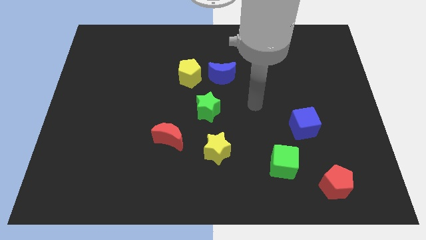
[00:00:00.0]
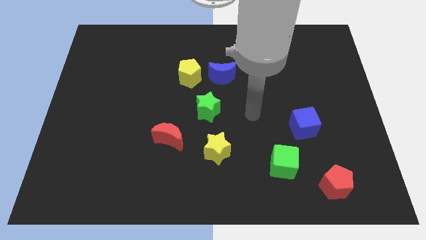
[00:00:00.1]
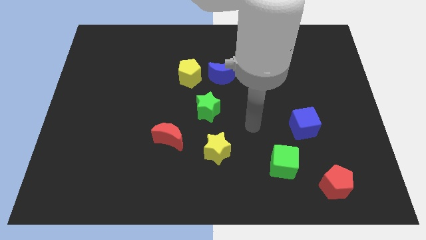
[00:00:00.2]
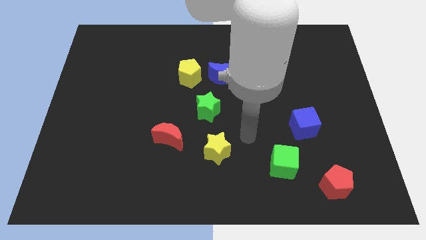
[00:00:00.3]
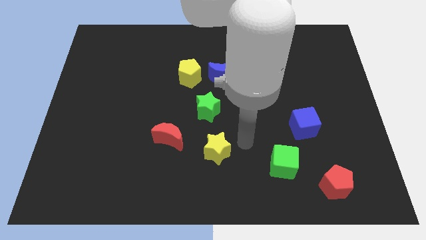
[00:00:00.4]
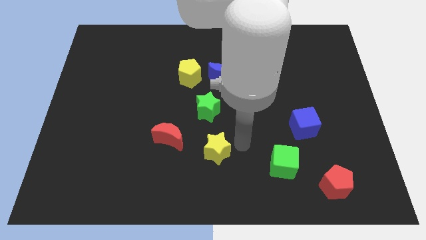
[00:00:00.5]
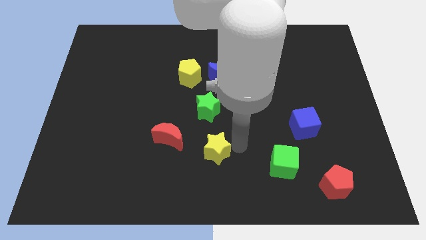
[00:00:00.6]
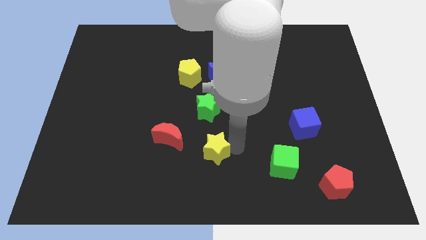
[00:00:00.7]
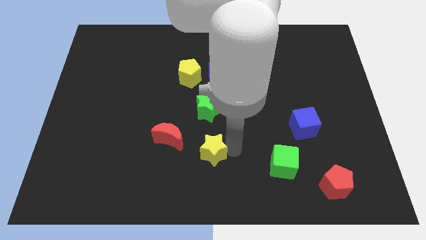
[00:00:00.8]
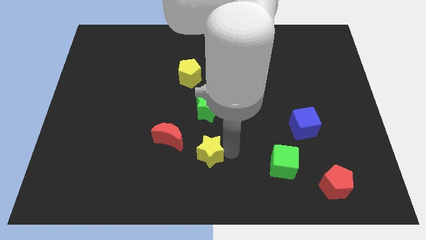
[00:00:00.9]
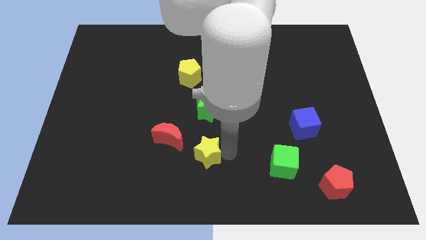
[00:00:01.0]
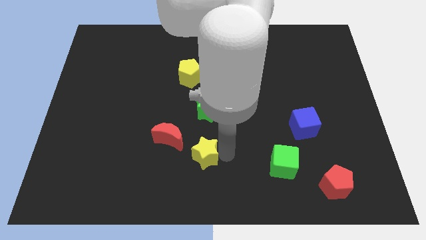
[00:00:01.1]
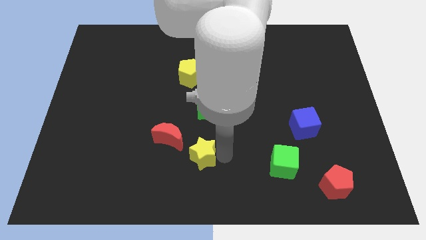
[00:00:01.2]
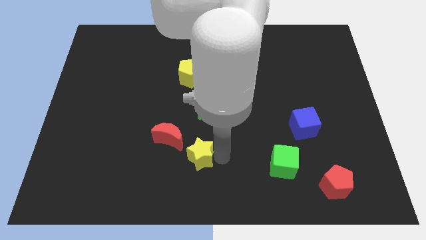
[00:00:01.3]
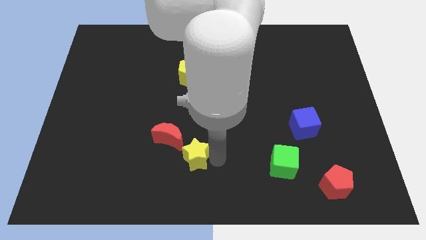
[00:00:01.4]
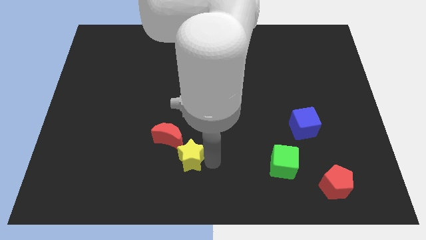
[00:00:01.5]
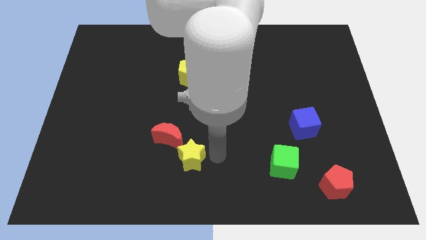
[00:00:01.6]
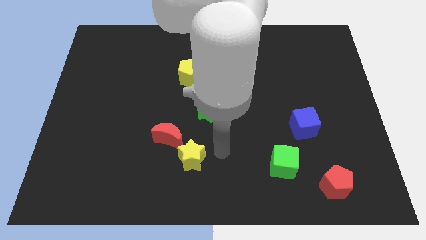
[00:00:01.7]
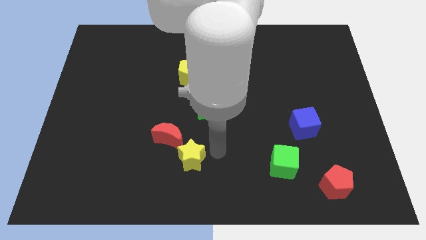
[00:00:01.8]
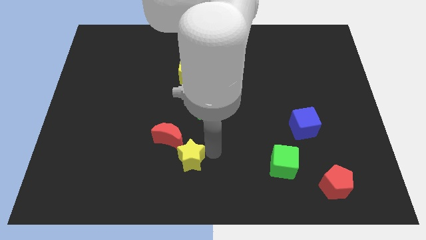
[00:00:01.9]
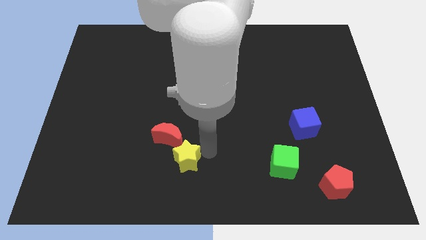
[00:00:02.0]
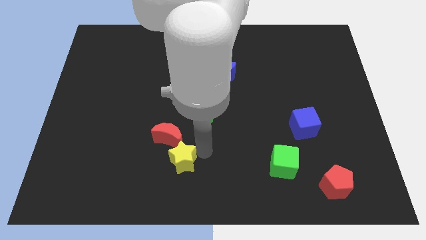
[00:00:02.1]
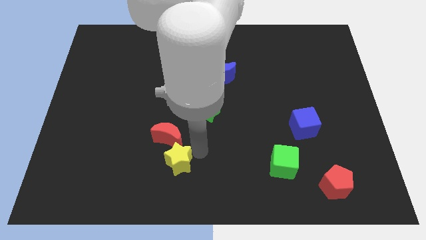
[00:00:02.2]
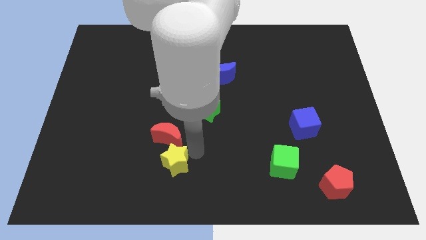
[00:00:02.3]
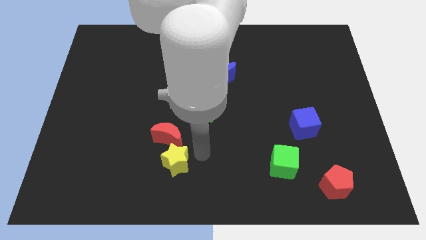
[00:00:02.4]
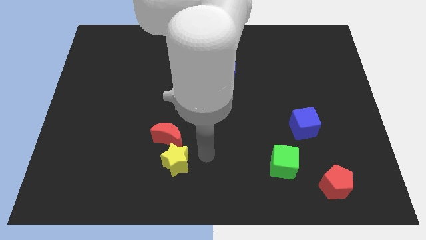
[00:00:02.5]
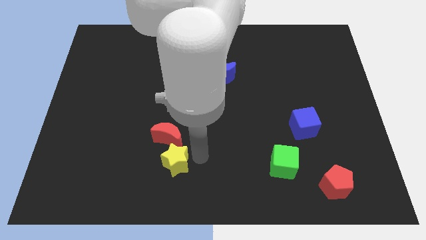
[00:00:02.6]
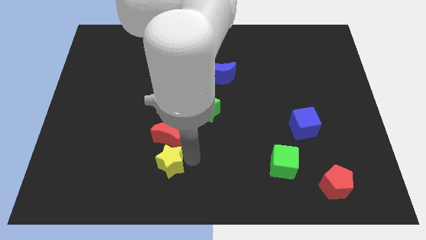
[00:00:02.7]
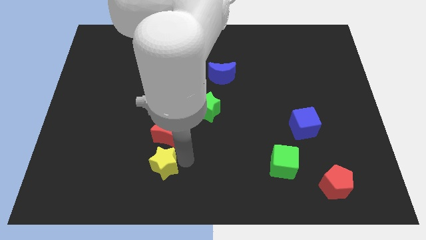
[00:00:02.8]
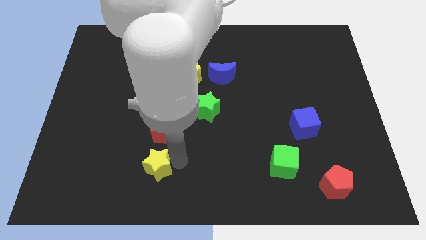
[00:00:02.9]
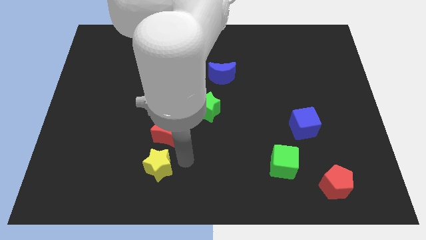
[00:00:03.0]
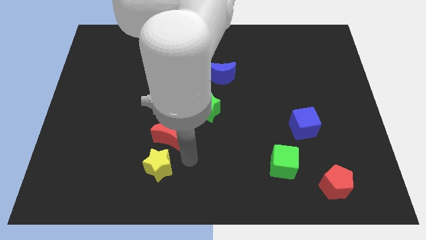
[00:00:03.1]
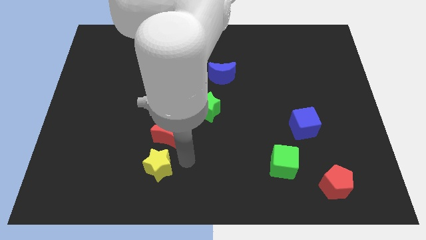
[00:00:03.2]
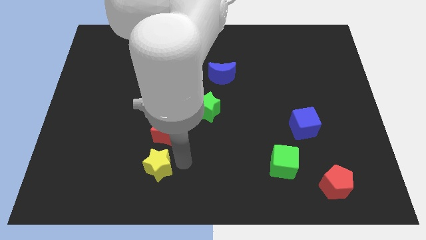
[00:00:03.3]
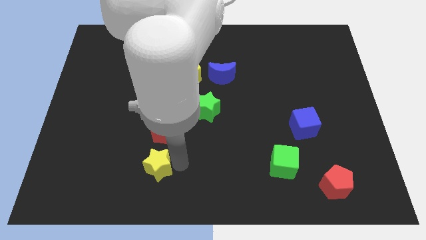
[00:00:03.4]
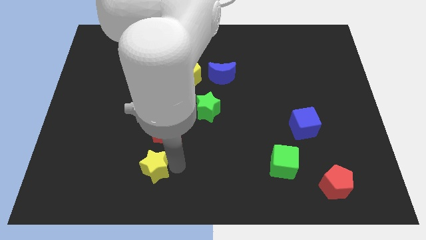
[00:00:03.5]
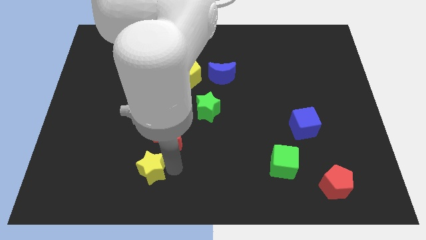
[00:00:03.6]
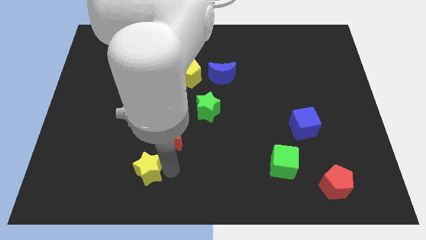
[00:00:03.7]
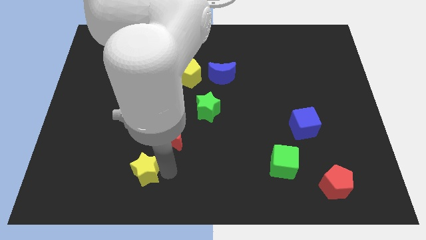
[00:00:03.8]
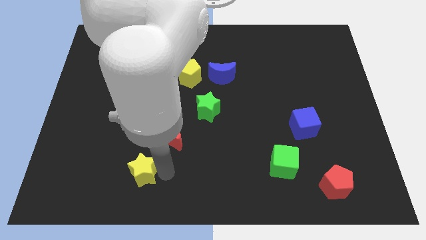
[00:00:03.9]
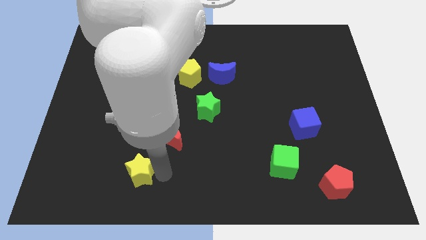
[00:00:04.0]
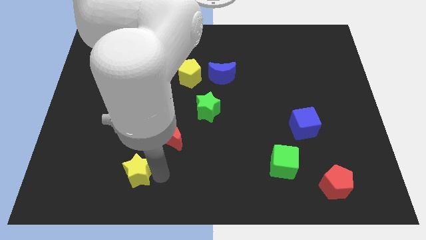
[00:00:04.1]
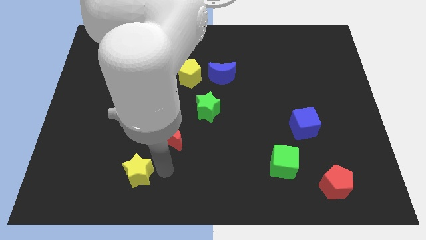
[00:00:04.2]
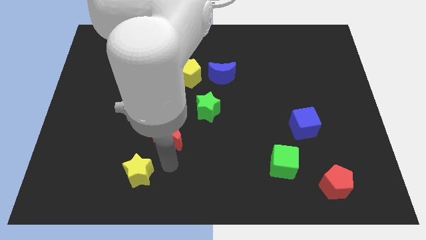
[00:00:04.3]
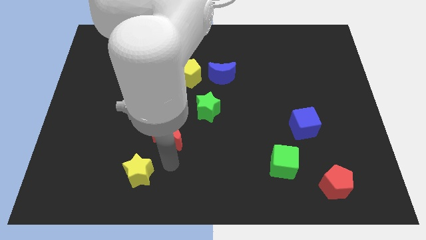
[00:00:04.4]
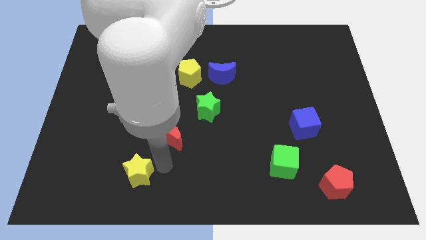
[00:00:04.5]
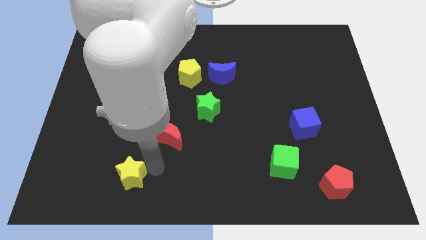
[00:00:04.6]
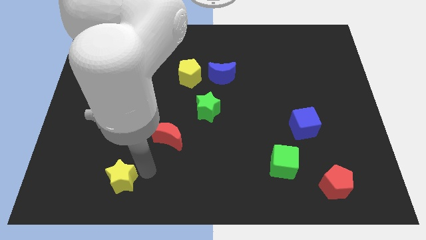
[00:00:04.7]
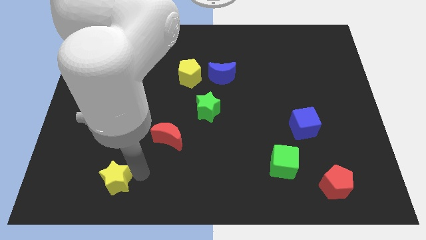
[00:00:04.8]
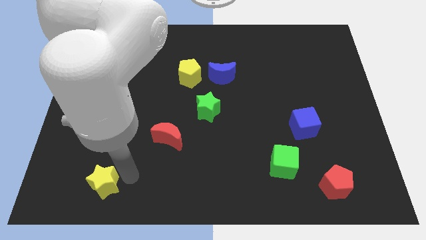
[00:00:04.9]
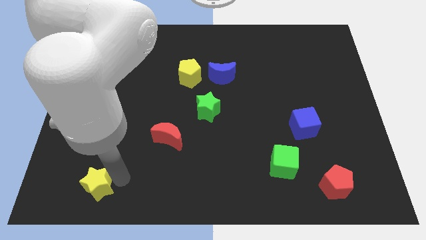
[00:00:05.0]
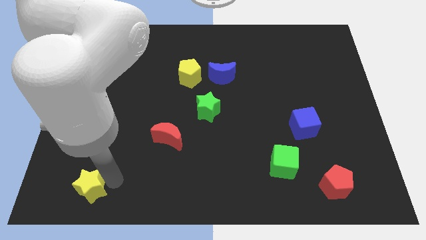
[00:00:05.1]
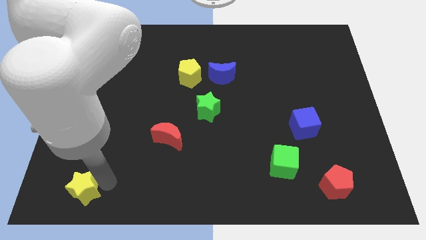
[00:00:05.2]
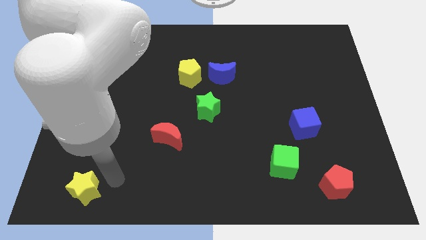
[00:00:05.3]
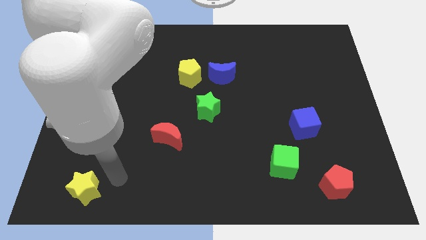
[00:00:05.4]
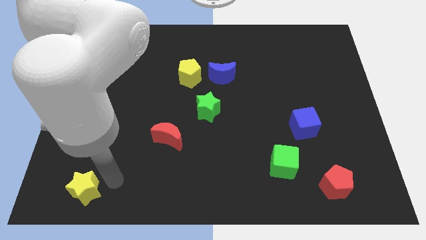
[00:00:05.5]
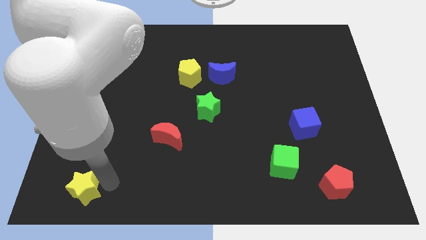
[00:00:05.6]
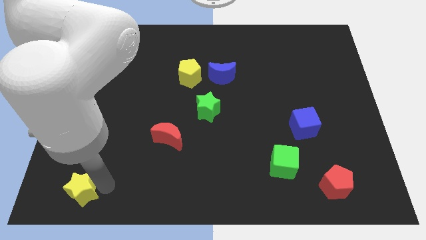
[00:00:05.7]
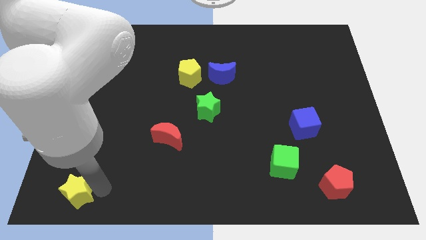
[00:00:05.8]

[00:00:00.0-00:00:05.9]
slide the yellow star to the bottom left corner
